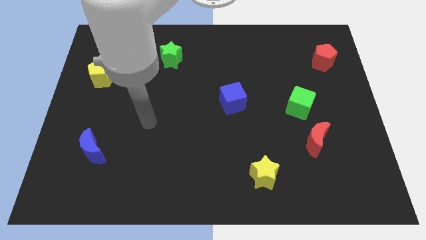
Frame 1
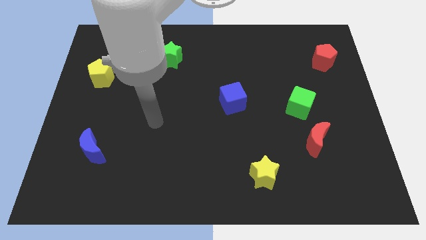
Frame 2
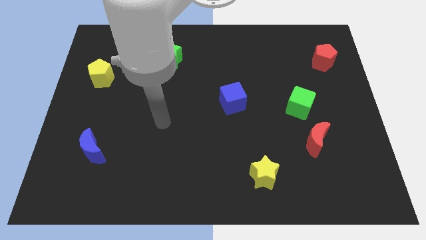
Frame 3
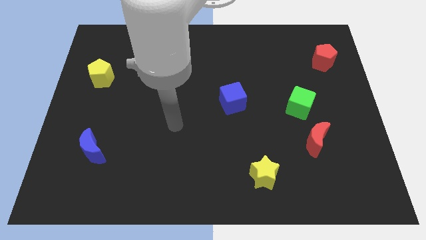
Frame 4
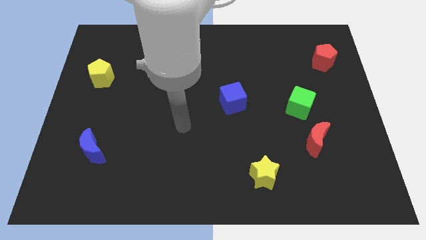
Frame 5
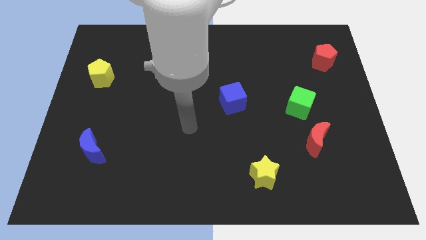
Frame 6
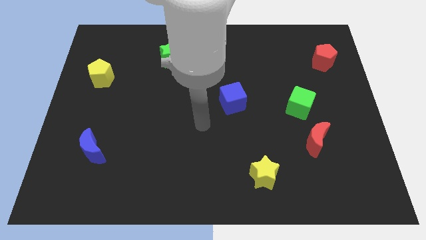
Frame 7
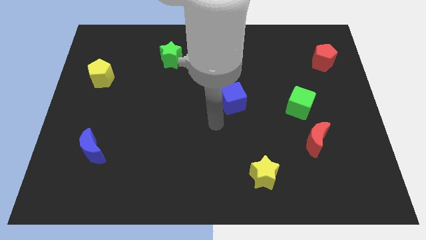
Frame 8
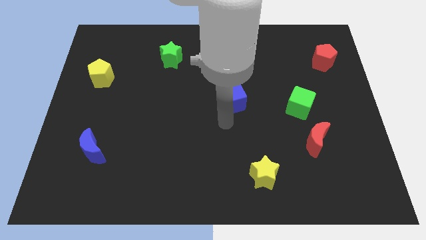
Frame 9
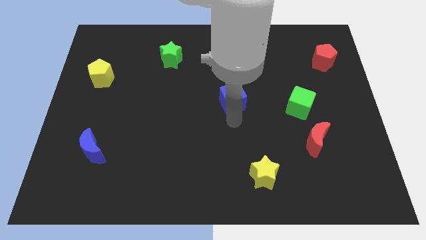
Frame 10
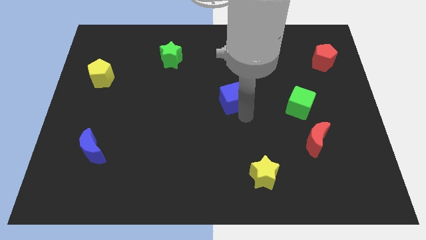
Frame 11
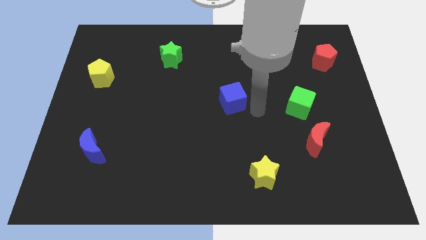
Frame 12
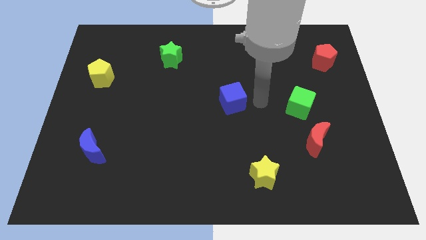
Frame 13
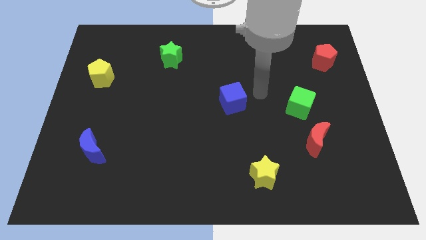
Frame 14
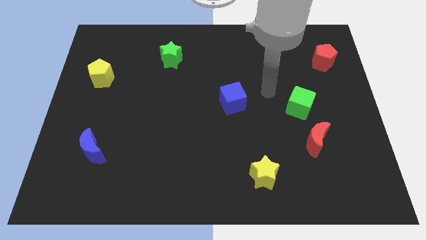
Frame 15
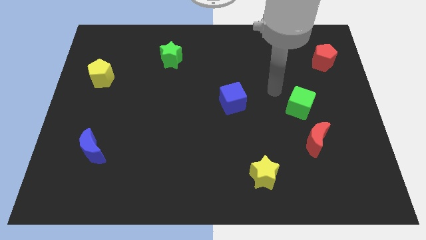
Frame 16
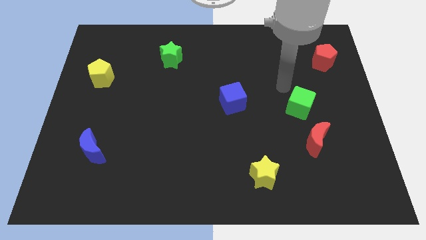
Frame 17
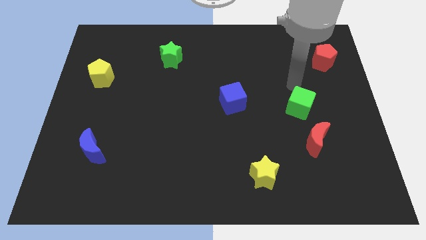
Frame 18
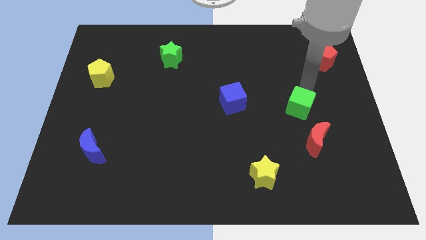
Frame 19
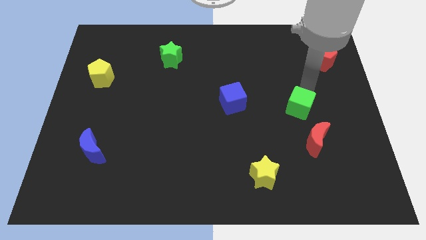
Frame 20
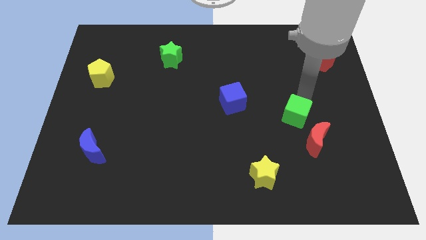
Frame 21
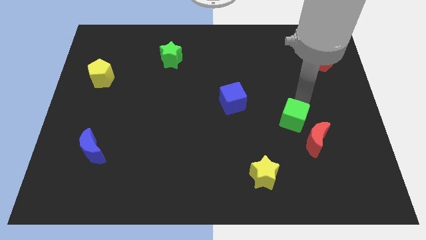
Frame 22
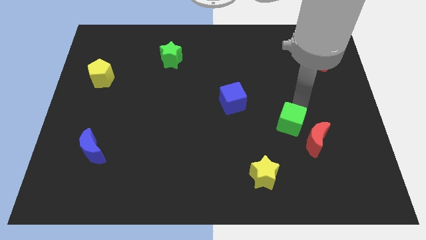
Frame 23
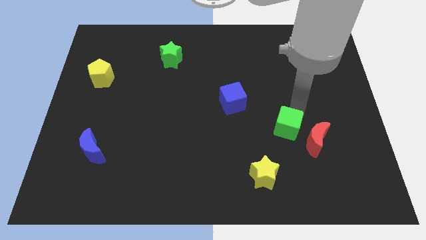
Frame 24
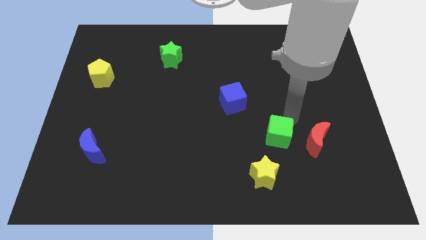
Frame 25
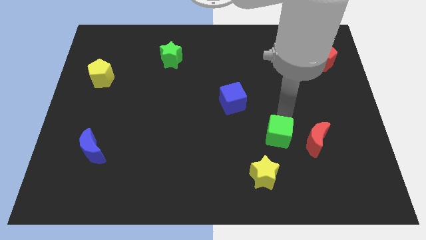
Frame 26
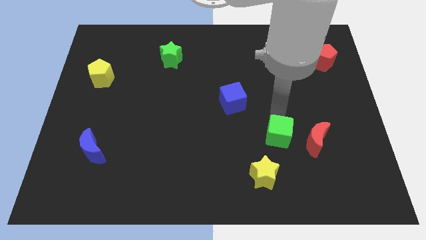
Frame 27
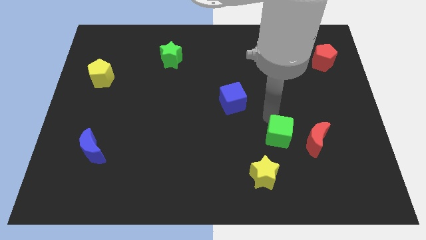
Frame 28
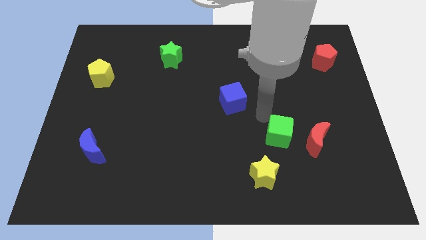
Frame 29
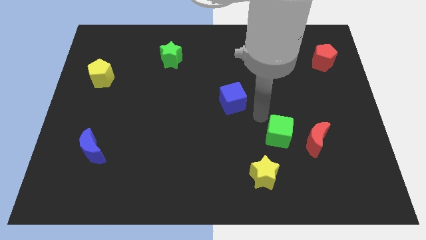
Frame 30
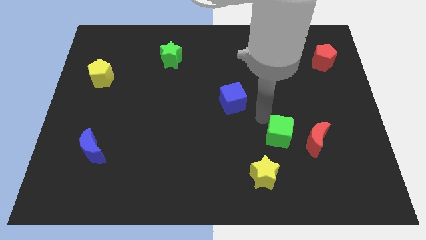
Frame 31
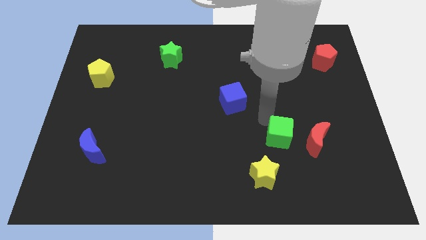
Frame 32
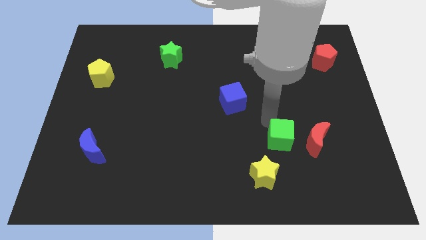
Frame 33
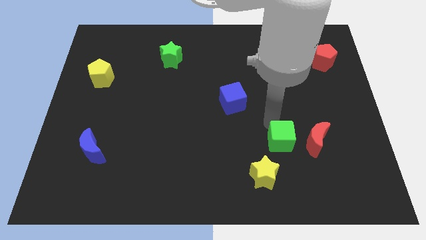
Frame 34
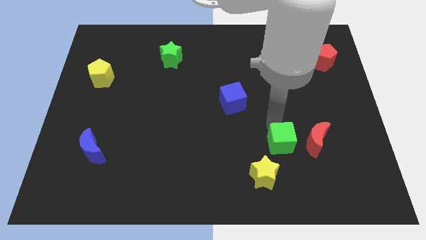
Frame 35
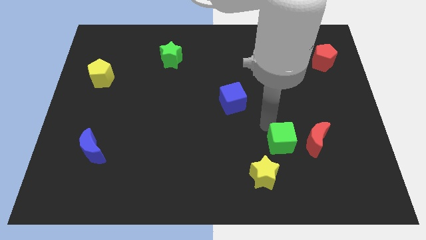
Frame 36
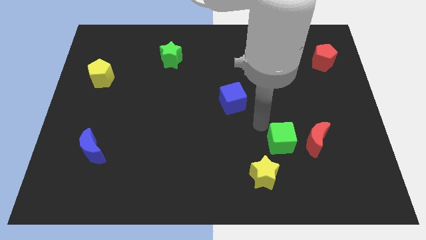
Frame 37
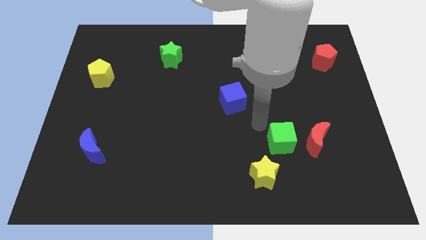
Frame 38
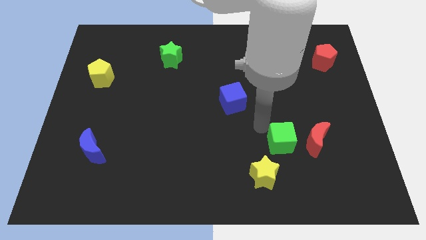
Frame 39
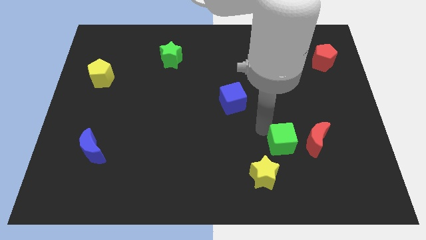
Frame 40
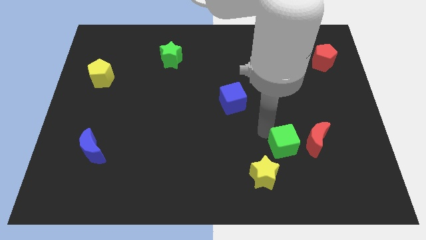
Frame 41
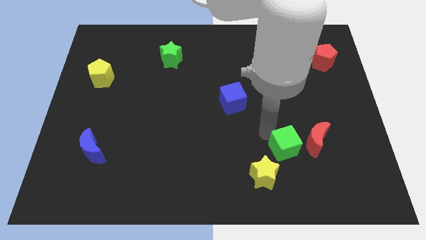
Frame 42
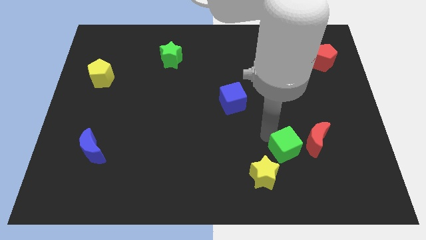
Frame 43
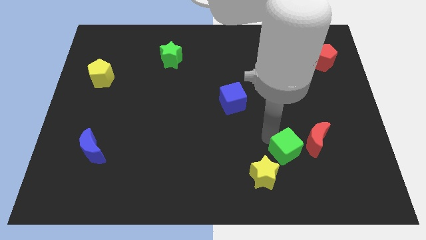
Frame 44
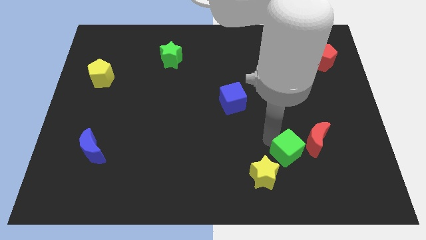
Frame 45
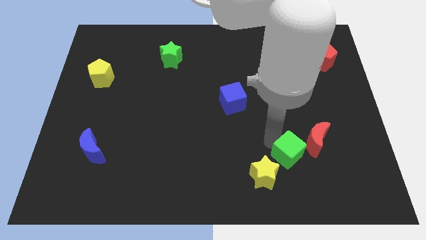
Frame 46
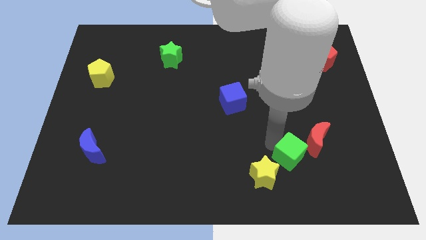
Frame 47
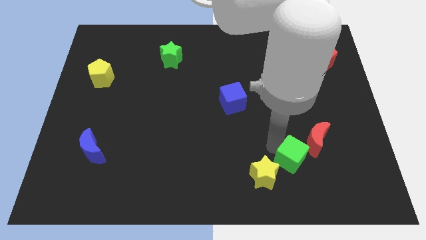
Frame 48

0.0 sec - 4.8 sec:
put the green cube just right of the yellow star

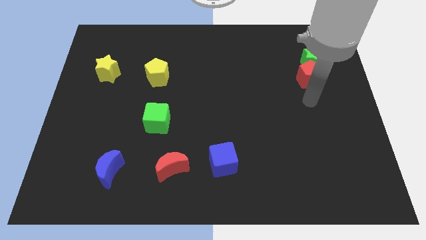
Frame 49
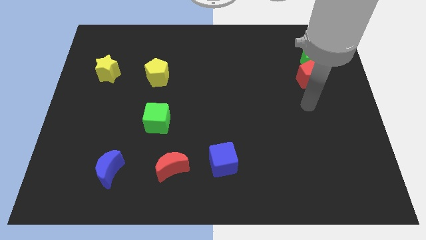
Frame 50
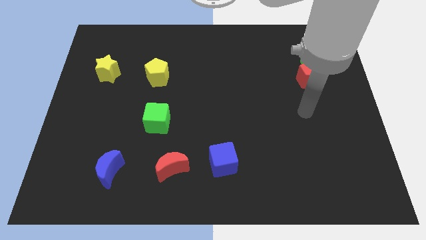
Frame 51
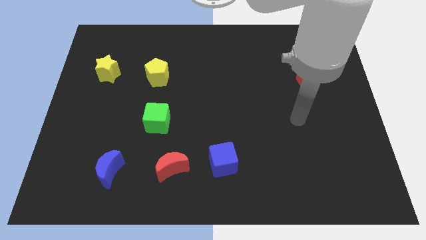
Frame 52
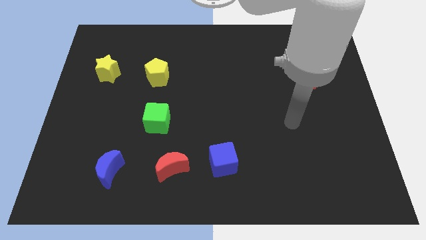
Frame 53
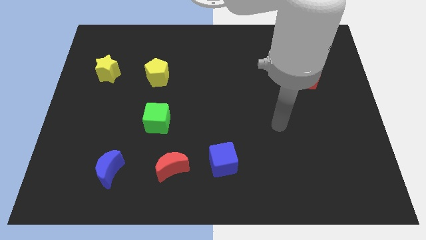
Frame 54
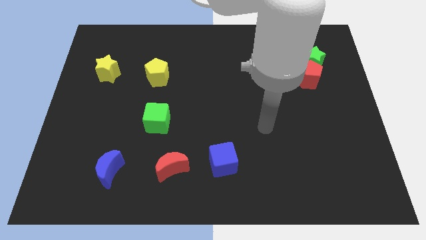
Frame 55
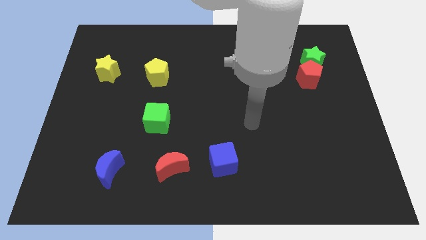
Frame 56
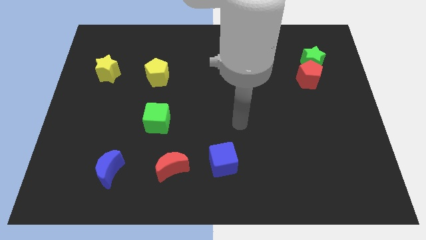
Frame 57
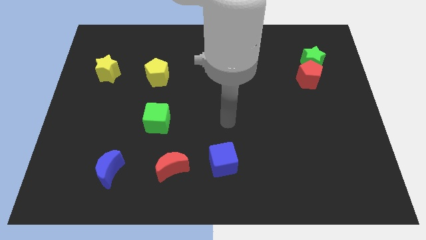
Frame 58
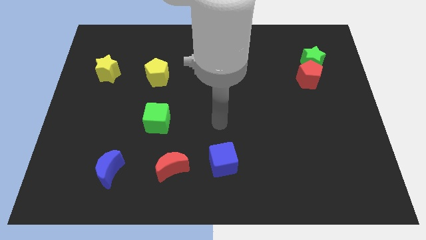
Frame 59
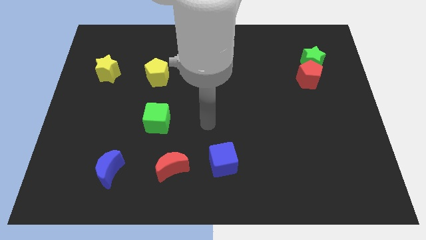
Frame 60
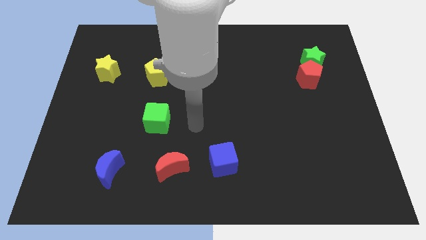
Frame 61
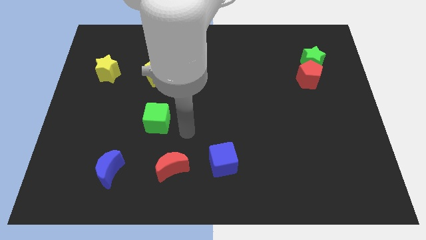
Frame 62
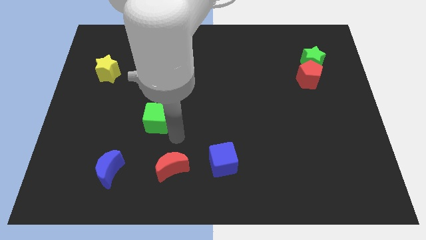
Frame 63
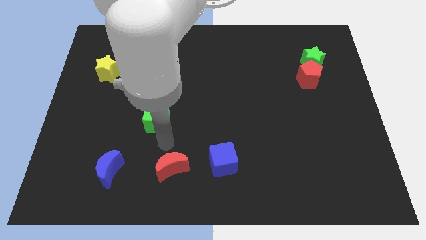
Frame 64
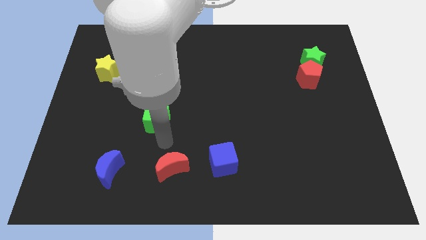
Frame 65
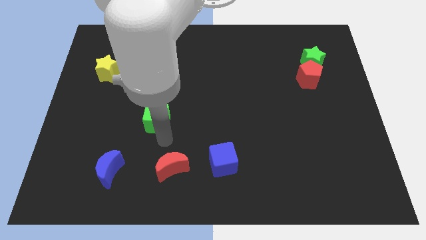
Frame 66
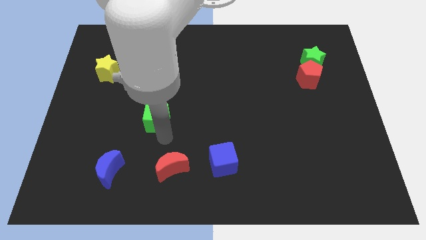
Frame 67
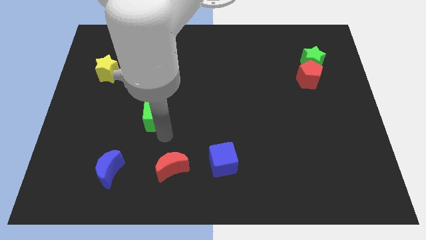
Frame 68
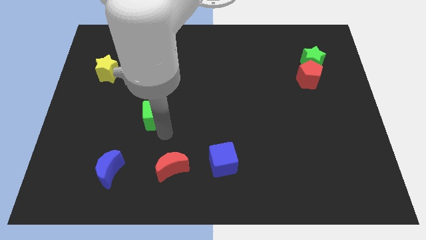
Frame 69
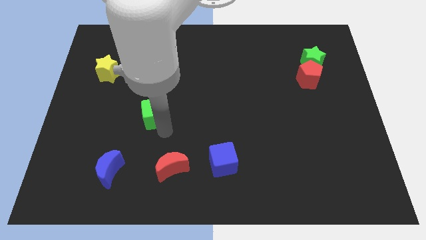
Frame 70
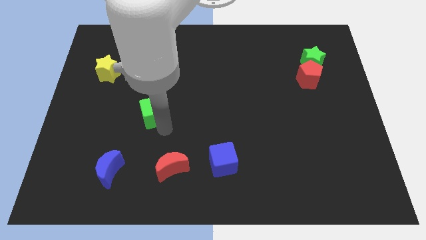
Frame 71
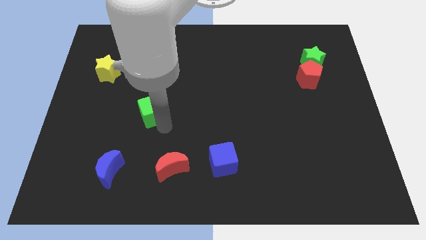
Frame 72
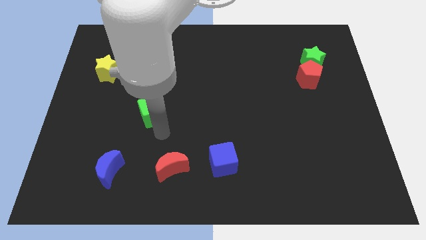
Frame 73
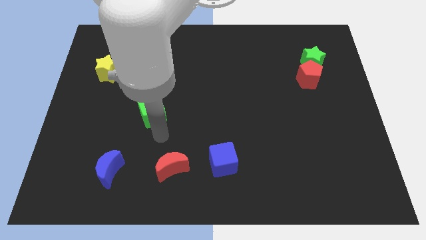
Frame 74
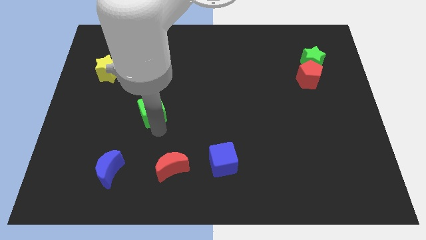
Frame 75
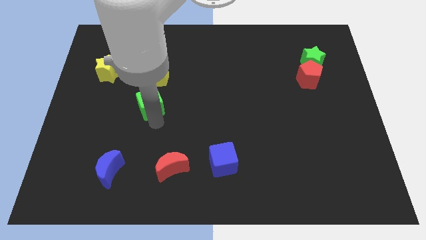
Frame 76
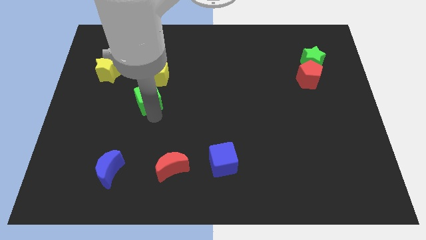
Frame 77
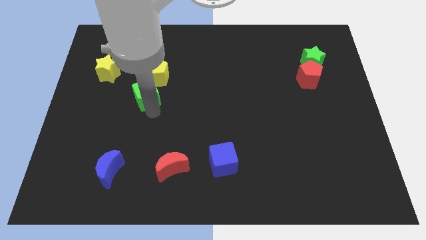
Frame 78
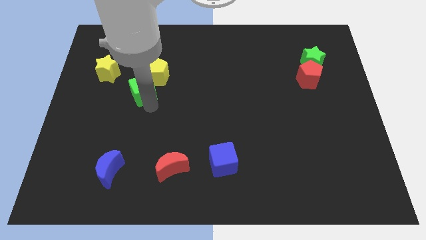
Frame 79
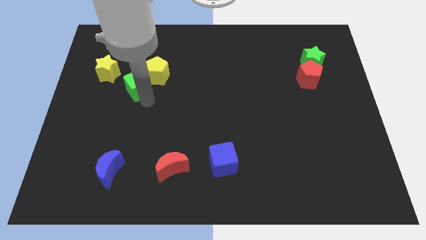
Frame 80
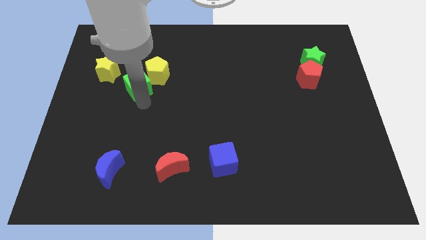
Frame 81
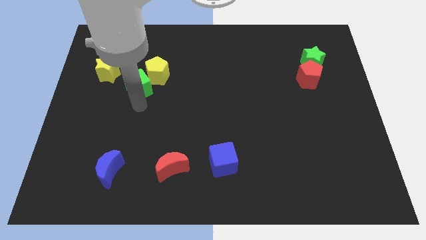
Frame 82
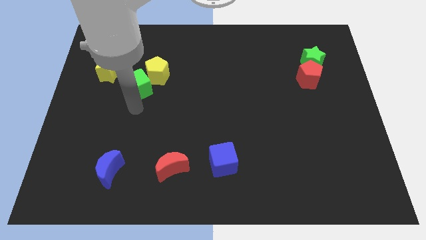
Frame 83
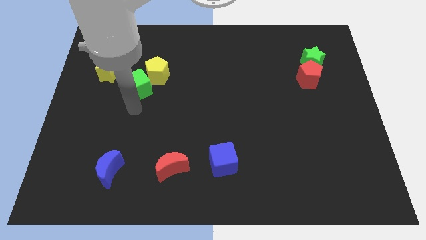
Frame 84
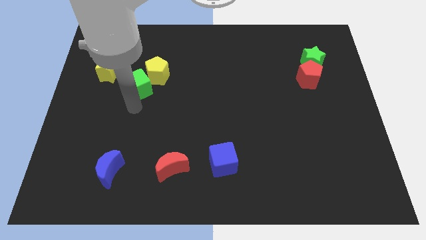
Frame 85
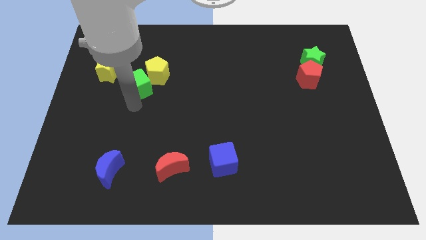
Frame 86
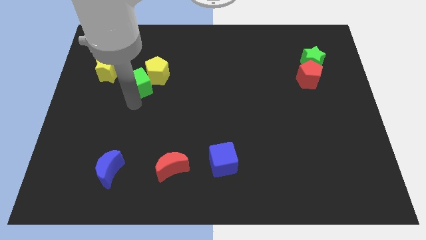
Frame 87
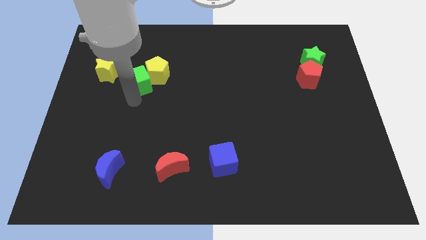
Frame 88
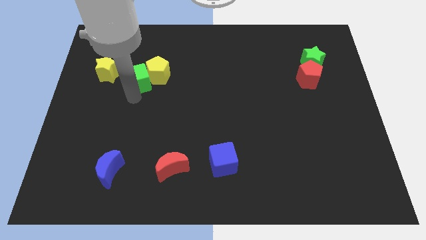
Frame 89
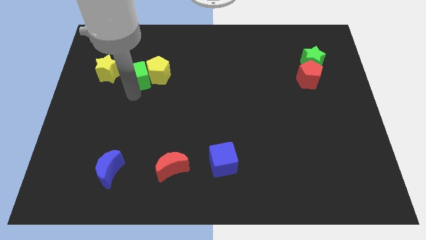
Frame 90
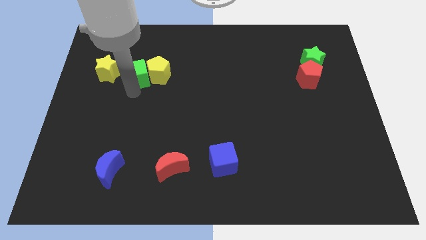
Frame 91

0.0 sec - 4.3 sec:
put the green cube to the top left of the yellow pentagon
